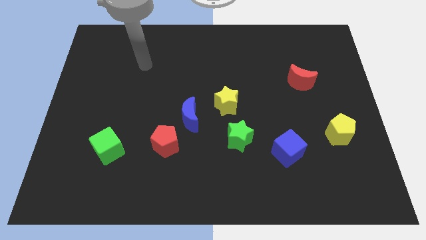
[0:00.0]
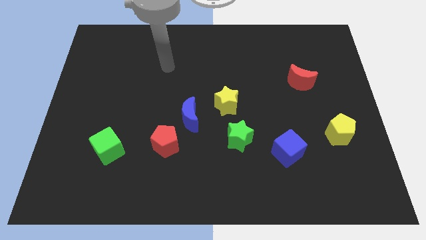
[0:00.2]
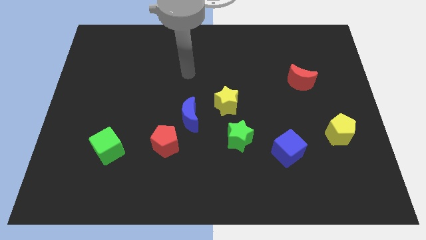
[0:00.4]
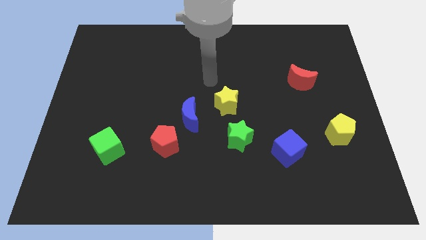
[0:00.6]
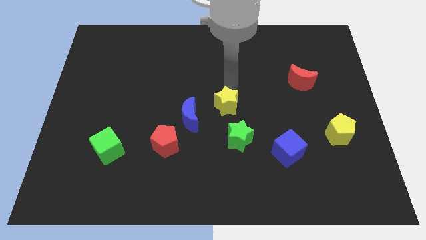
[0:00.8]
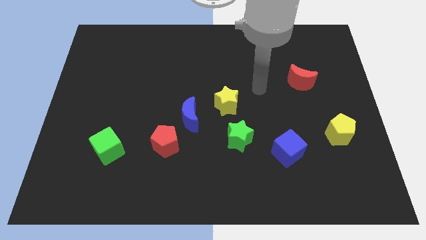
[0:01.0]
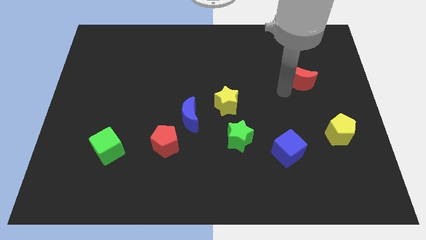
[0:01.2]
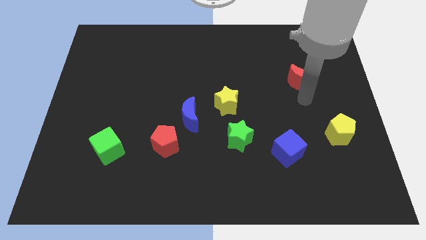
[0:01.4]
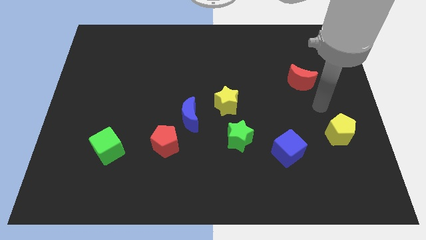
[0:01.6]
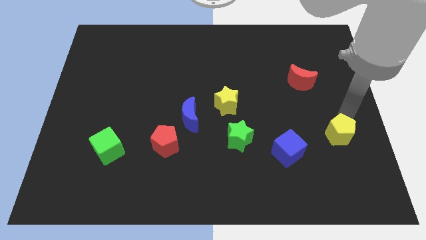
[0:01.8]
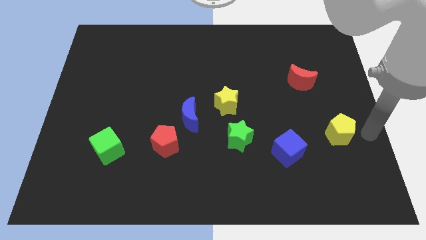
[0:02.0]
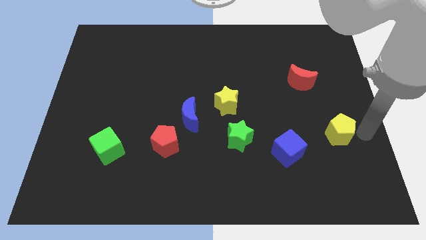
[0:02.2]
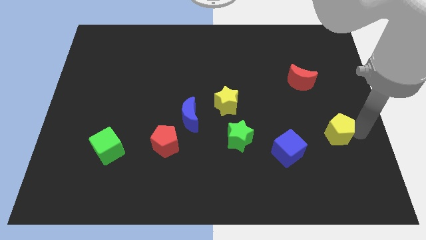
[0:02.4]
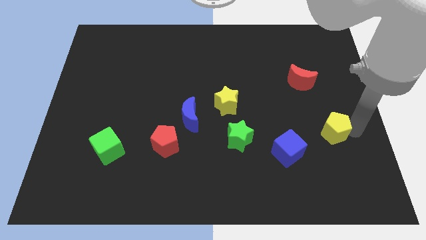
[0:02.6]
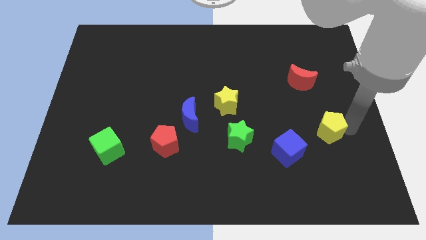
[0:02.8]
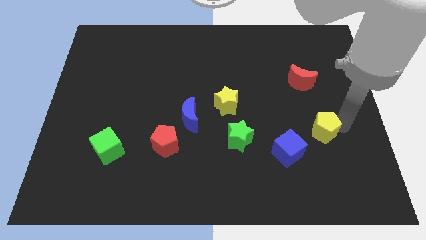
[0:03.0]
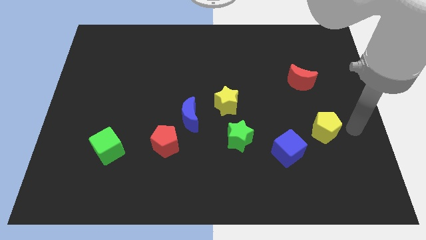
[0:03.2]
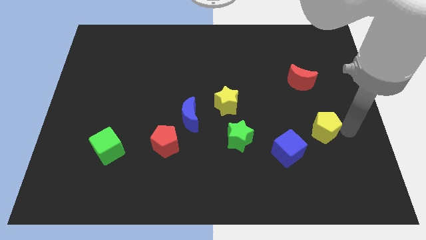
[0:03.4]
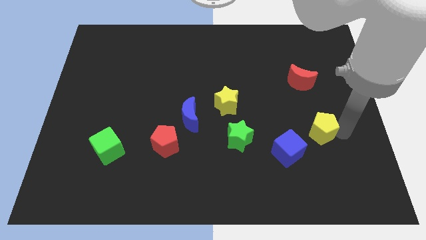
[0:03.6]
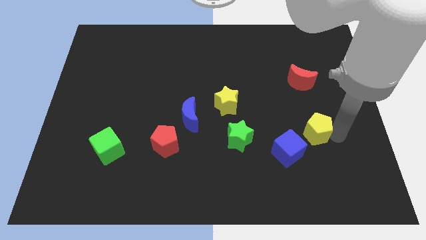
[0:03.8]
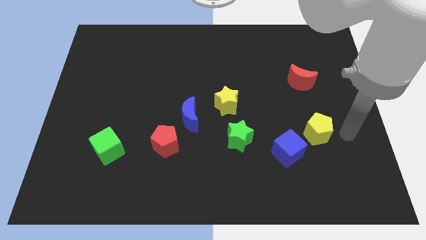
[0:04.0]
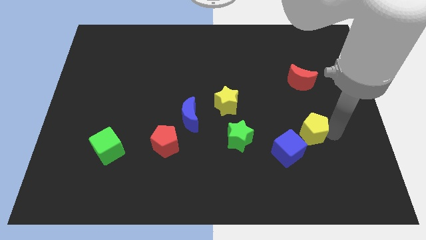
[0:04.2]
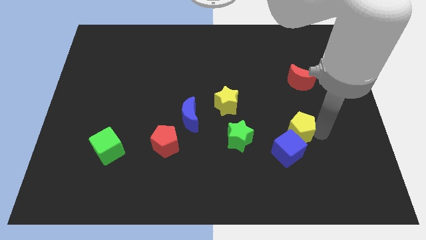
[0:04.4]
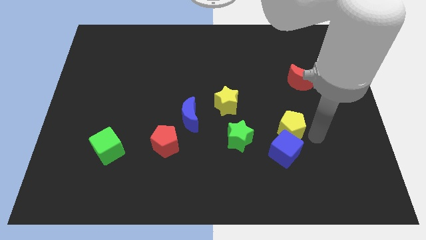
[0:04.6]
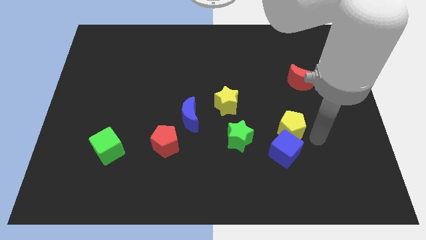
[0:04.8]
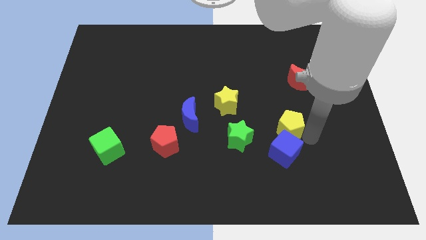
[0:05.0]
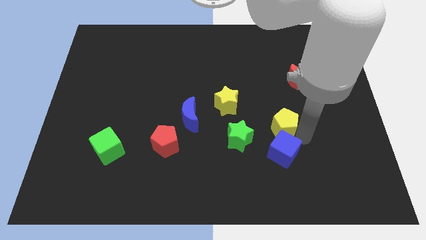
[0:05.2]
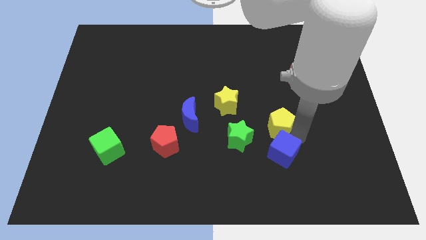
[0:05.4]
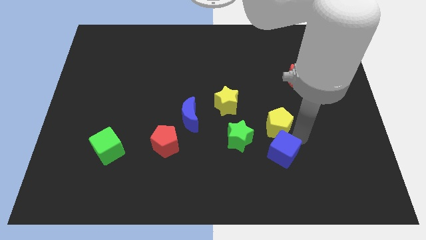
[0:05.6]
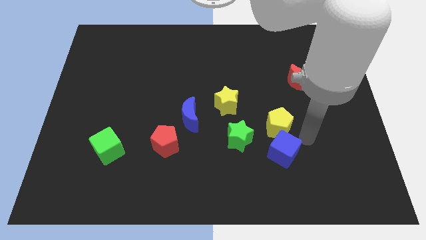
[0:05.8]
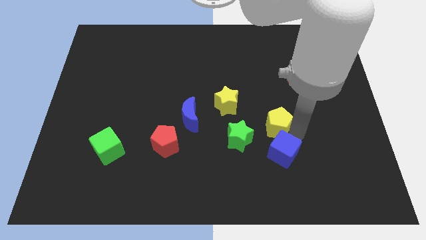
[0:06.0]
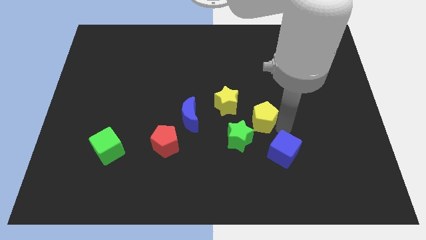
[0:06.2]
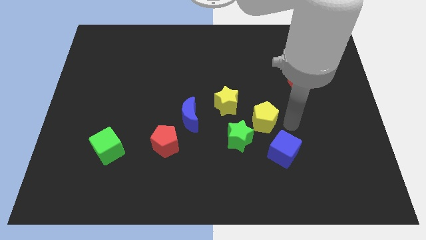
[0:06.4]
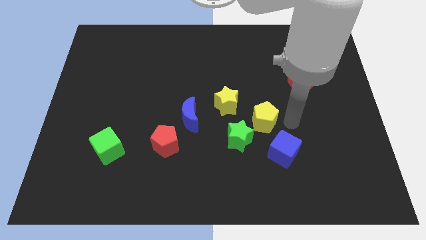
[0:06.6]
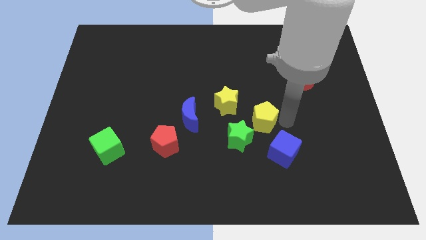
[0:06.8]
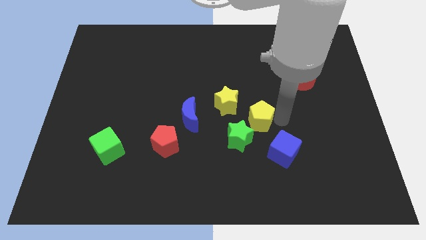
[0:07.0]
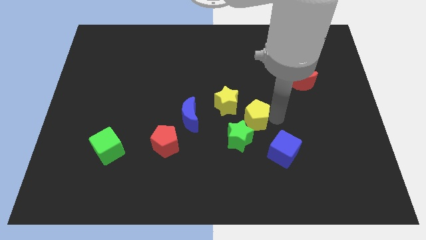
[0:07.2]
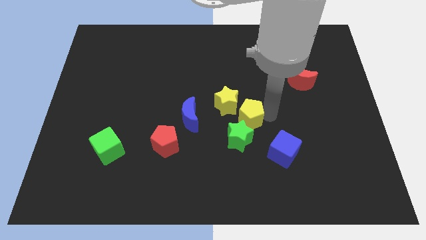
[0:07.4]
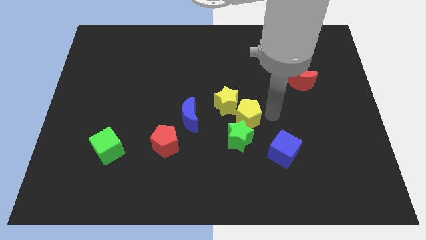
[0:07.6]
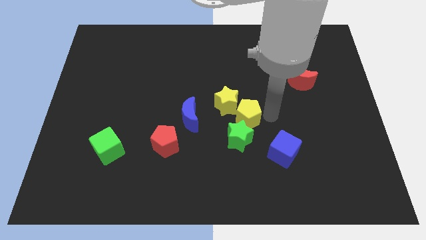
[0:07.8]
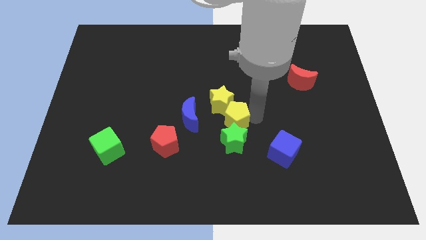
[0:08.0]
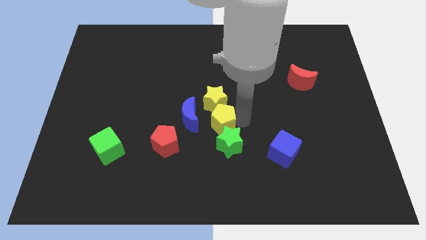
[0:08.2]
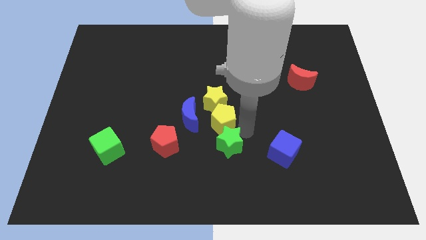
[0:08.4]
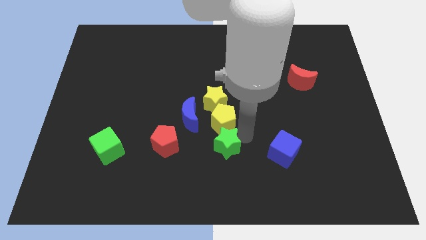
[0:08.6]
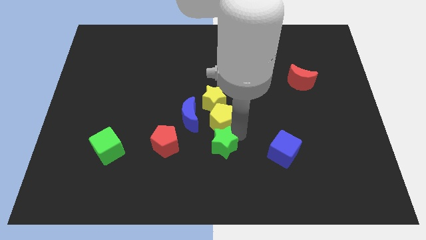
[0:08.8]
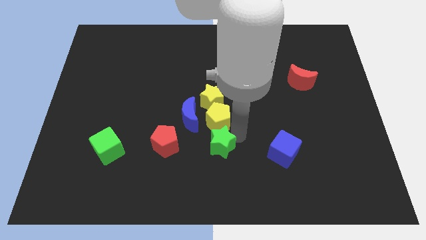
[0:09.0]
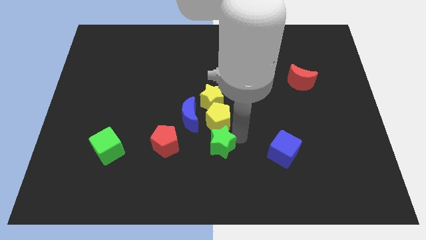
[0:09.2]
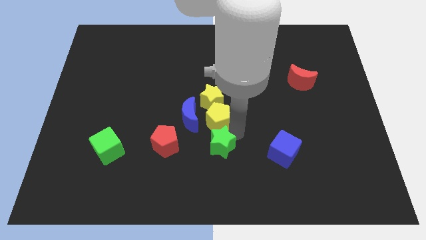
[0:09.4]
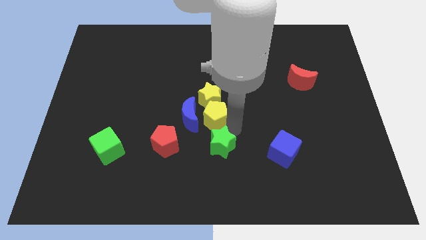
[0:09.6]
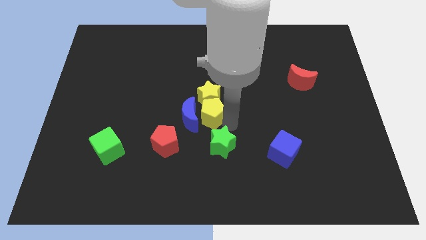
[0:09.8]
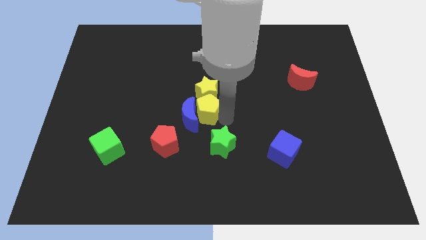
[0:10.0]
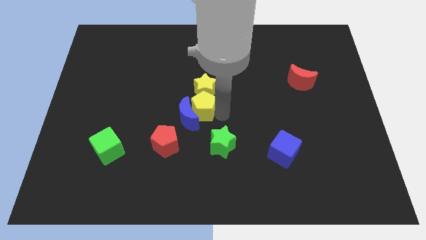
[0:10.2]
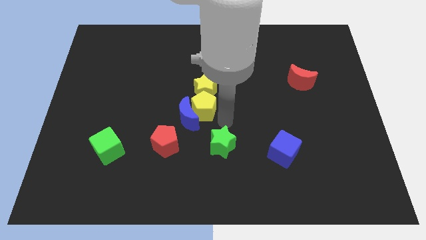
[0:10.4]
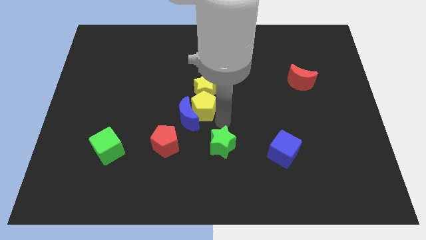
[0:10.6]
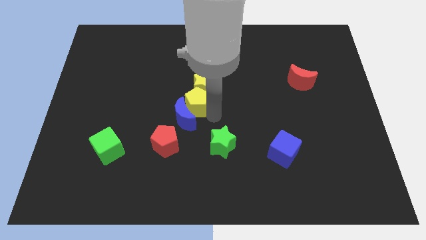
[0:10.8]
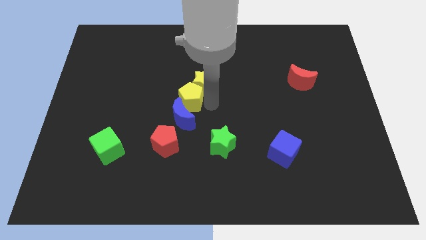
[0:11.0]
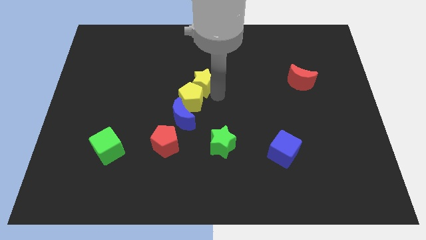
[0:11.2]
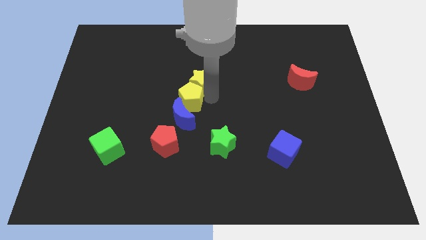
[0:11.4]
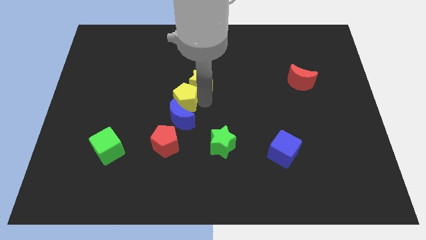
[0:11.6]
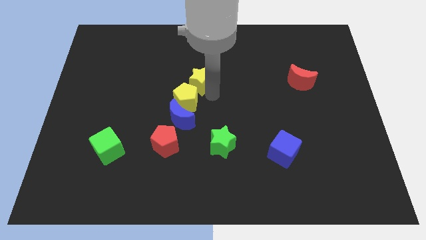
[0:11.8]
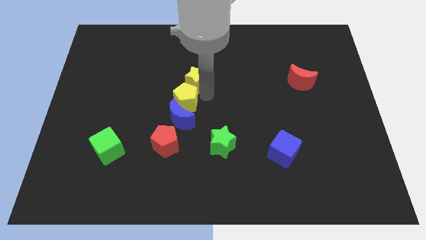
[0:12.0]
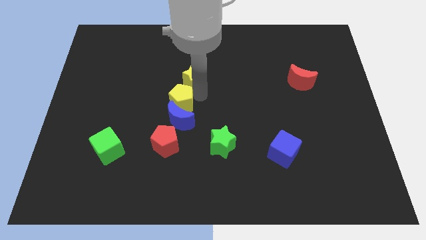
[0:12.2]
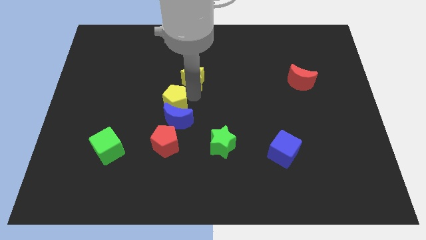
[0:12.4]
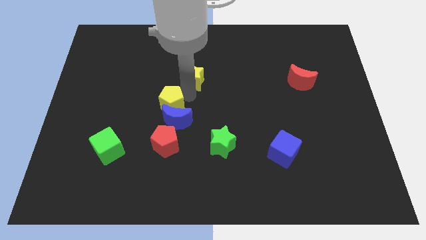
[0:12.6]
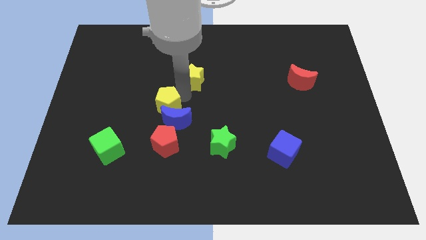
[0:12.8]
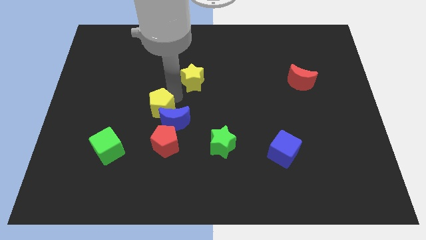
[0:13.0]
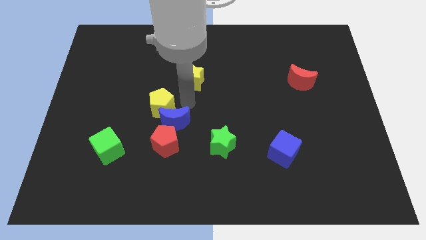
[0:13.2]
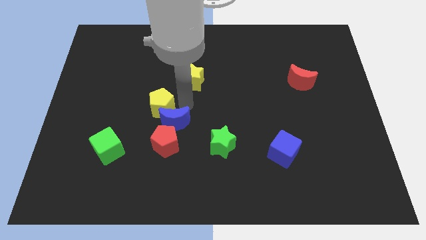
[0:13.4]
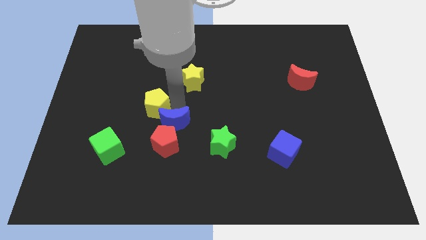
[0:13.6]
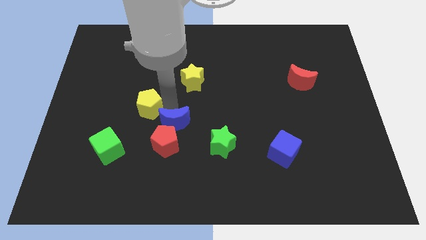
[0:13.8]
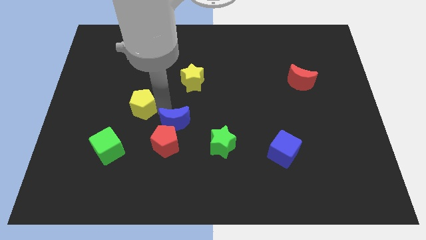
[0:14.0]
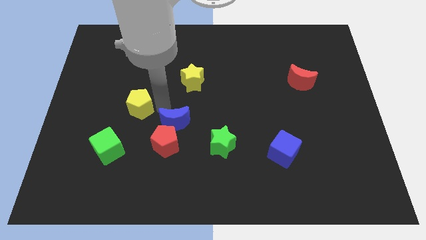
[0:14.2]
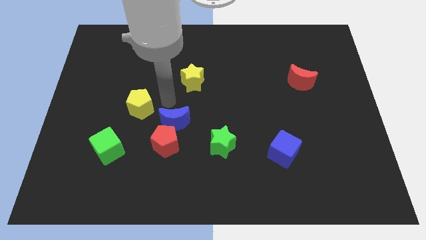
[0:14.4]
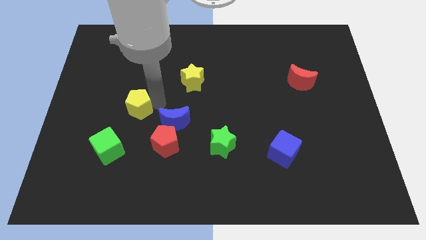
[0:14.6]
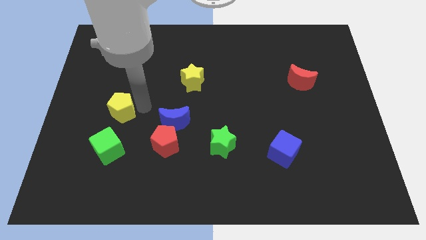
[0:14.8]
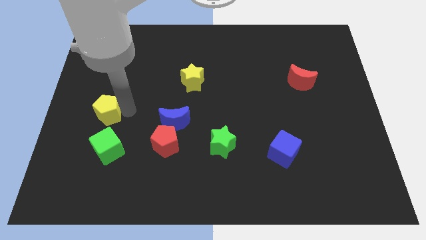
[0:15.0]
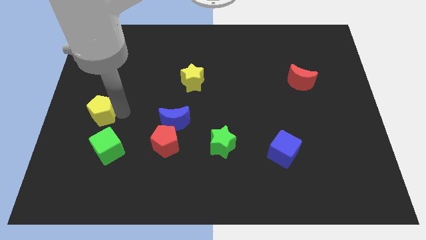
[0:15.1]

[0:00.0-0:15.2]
push the yellow pentagon to the left side
